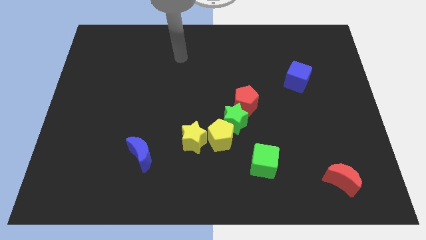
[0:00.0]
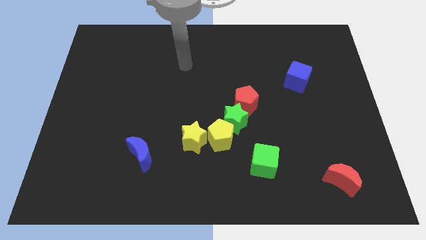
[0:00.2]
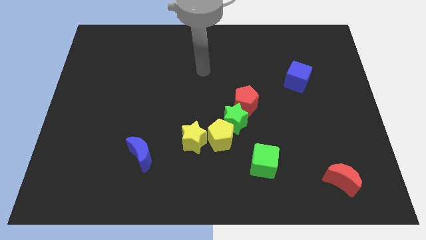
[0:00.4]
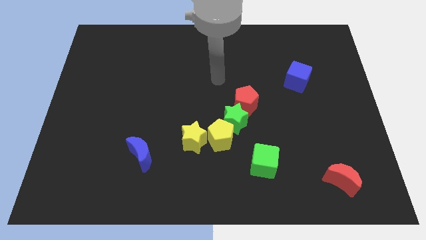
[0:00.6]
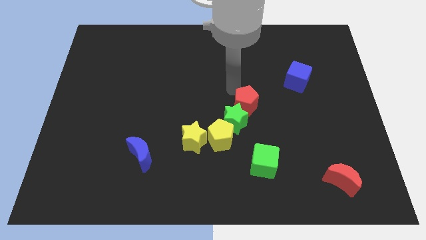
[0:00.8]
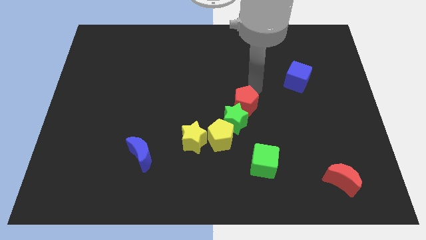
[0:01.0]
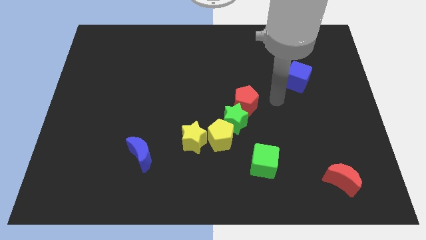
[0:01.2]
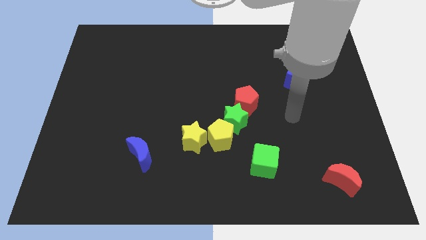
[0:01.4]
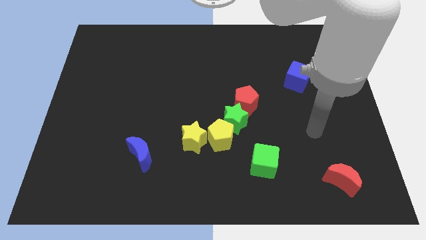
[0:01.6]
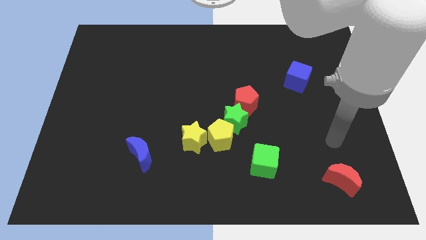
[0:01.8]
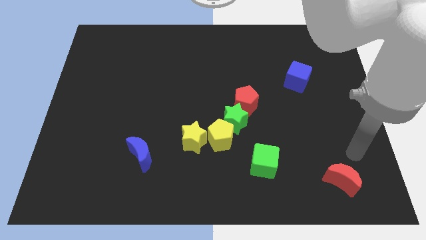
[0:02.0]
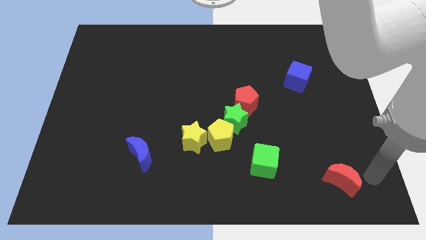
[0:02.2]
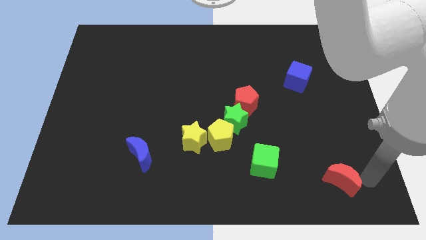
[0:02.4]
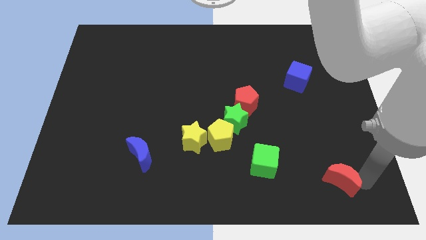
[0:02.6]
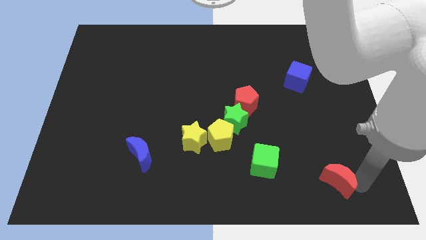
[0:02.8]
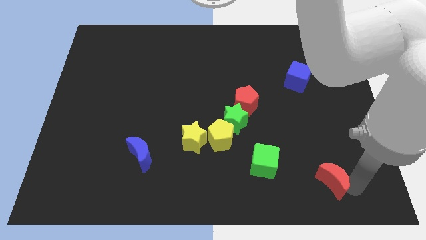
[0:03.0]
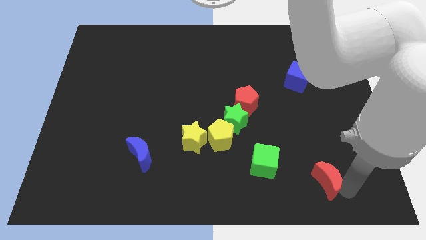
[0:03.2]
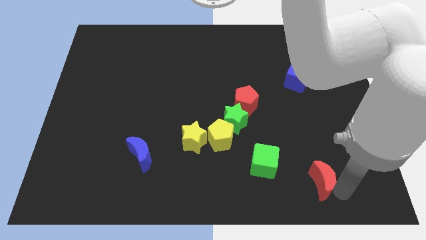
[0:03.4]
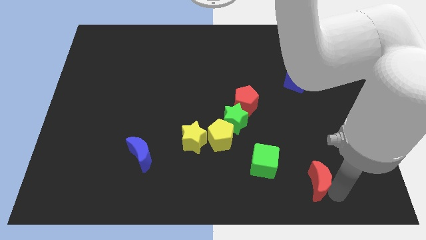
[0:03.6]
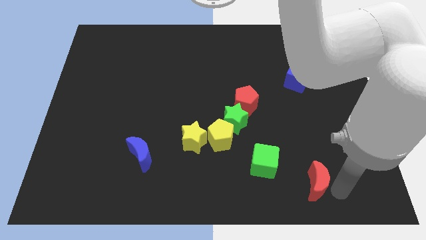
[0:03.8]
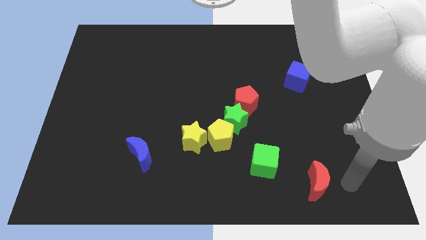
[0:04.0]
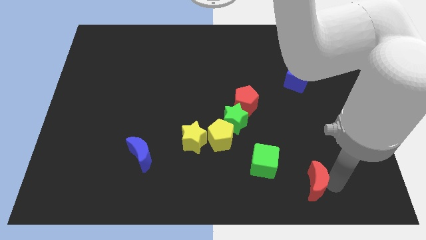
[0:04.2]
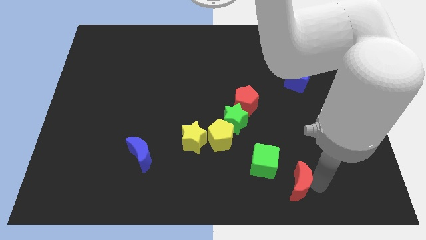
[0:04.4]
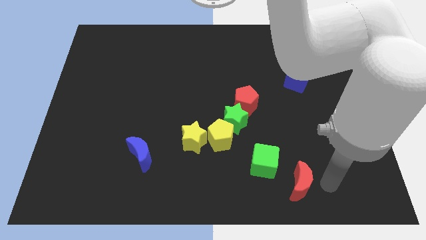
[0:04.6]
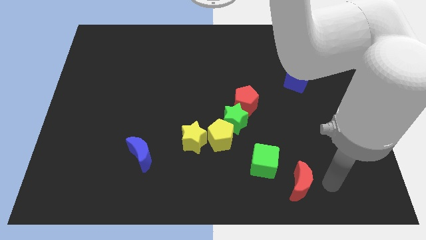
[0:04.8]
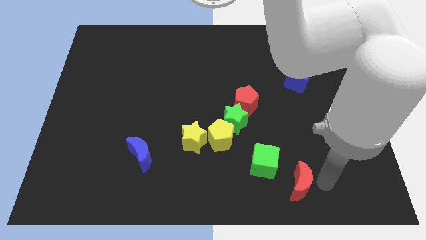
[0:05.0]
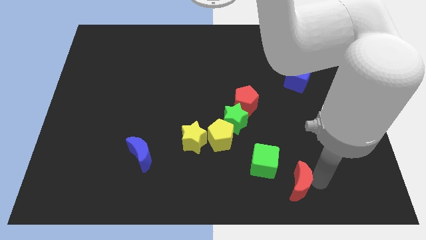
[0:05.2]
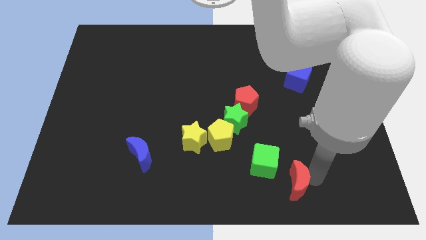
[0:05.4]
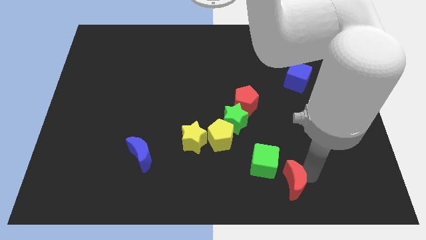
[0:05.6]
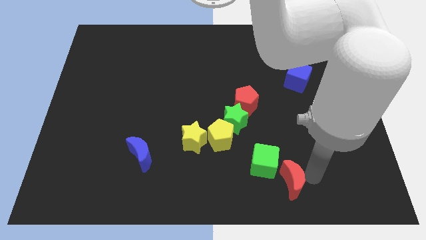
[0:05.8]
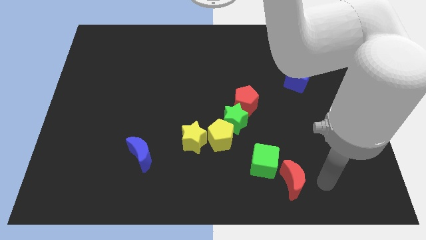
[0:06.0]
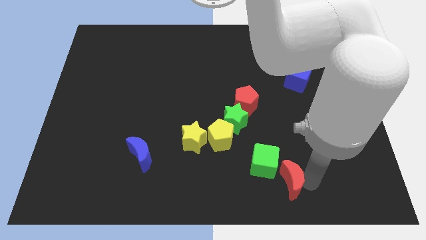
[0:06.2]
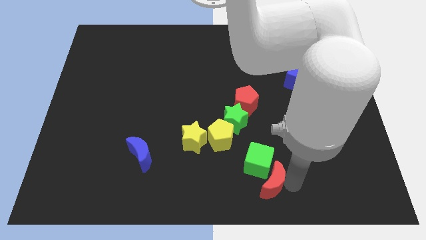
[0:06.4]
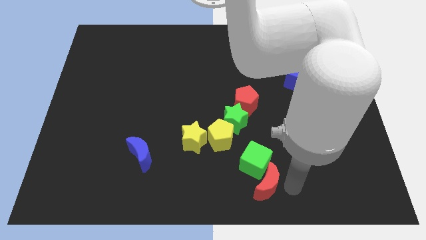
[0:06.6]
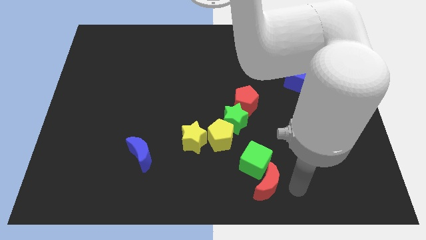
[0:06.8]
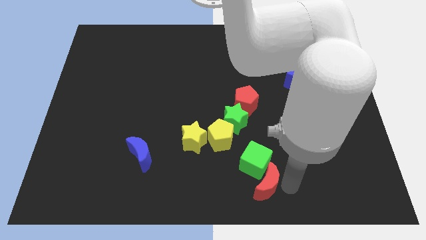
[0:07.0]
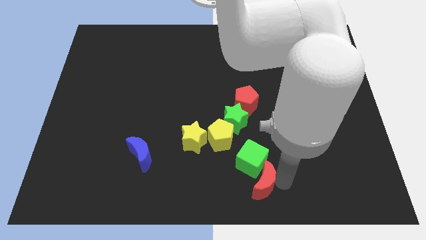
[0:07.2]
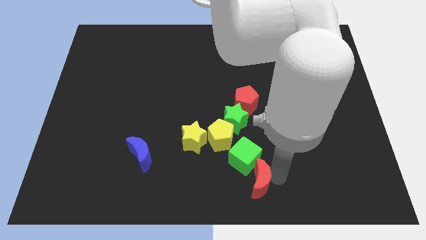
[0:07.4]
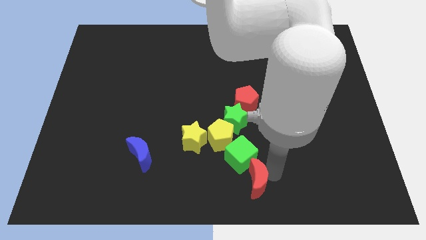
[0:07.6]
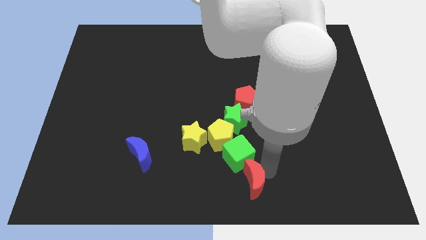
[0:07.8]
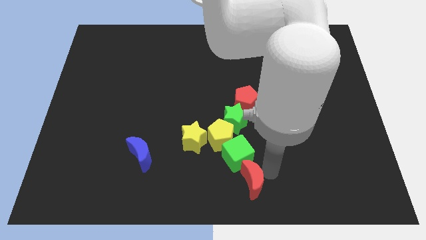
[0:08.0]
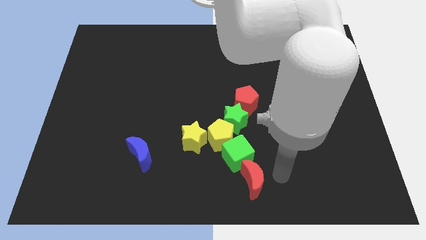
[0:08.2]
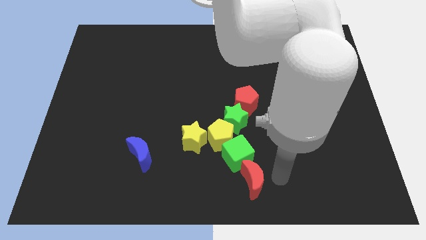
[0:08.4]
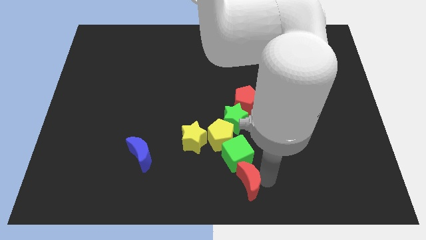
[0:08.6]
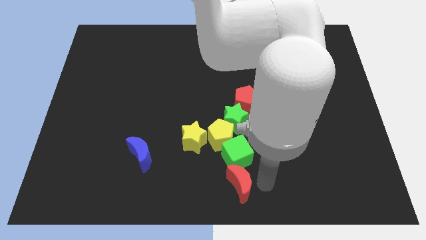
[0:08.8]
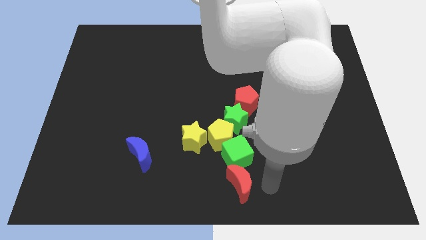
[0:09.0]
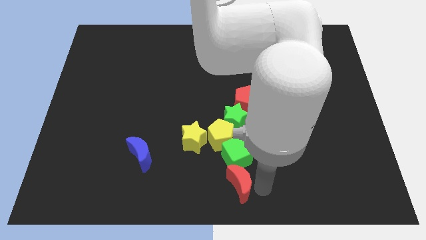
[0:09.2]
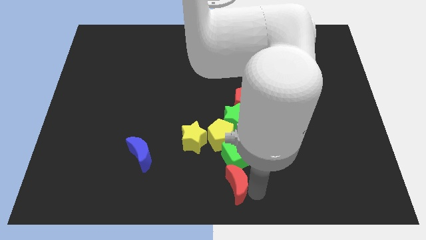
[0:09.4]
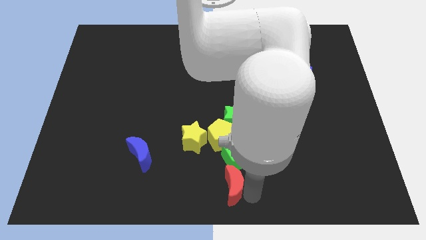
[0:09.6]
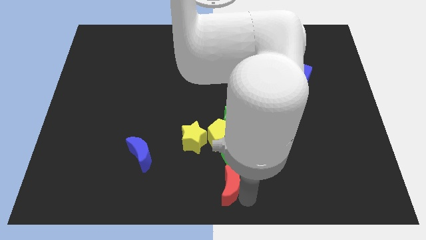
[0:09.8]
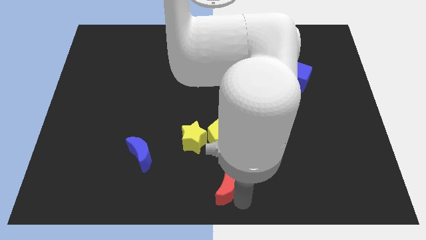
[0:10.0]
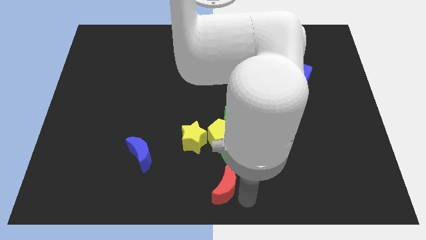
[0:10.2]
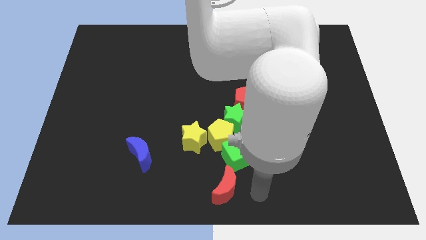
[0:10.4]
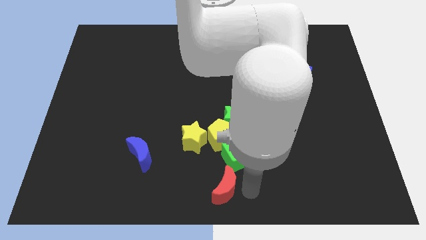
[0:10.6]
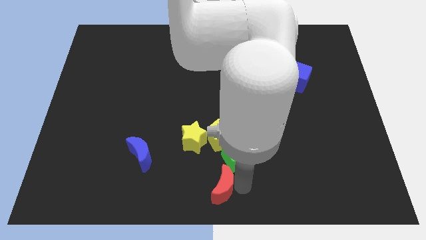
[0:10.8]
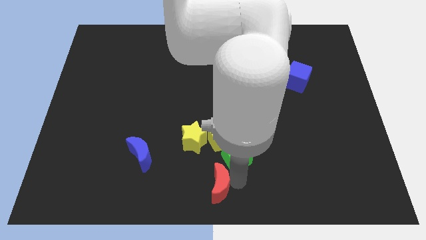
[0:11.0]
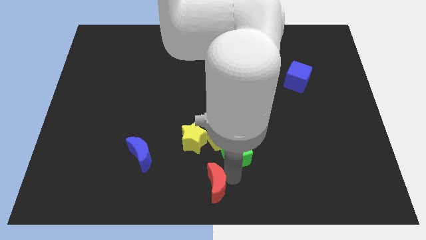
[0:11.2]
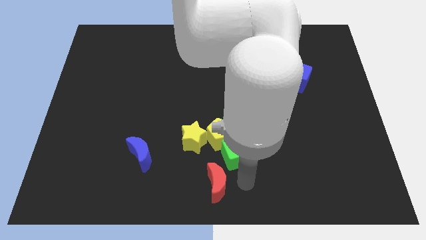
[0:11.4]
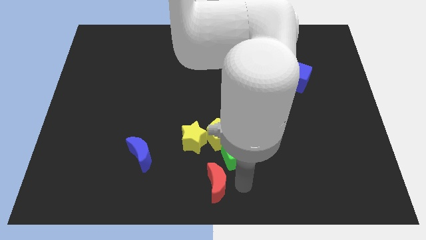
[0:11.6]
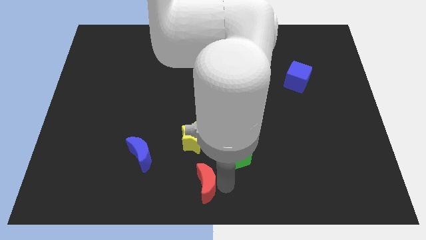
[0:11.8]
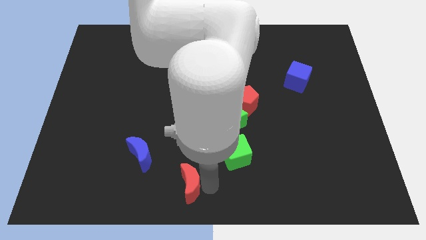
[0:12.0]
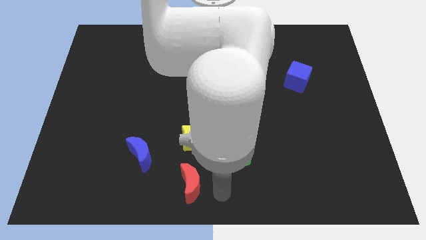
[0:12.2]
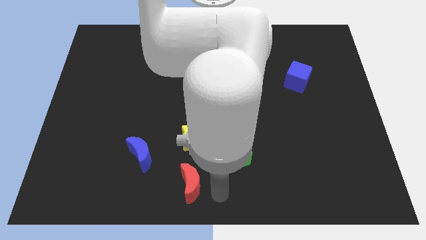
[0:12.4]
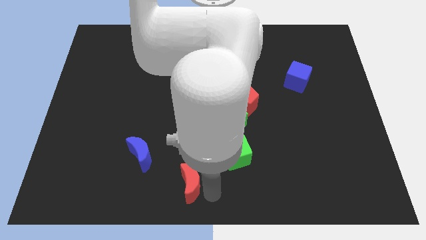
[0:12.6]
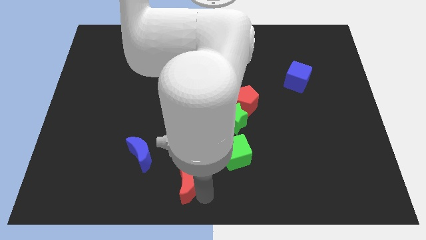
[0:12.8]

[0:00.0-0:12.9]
move the red moon to the bottom right of the blue moon
